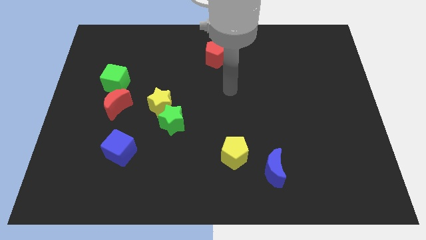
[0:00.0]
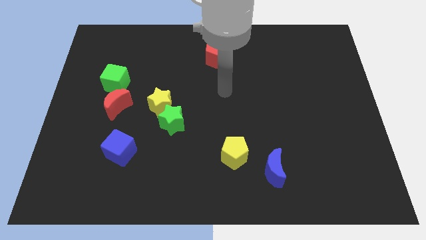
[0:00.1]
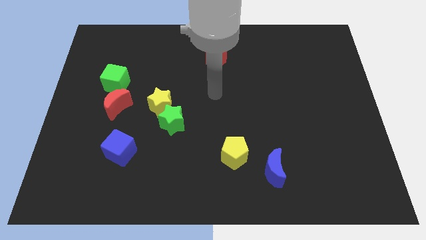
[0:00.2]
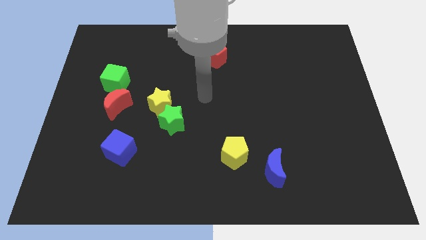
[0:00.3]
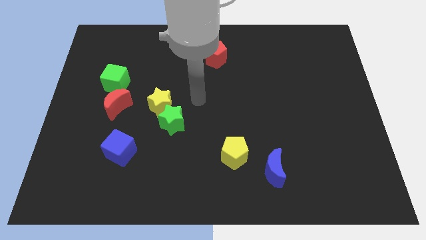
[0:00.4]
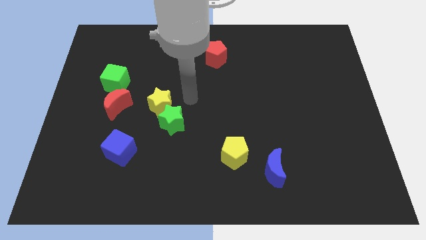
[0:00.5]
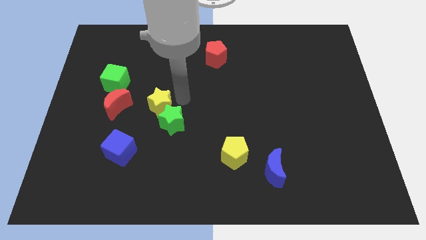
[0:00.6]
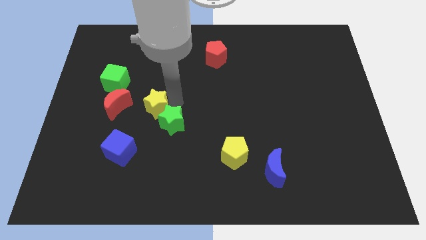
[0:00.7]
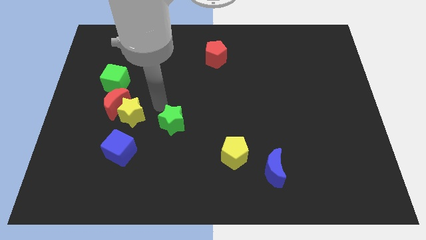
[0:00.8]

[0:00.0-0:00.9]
pull the green star apart from the yellow star

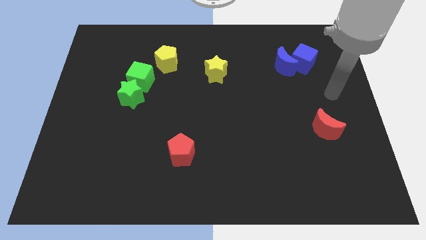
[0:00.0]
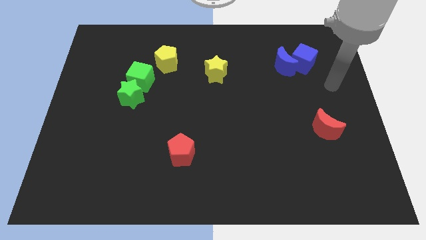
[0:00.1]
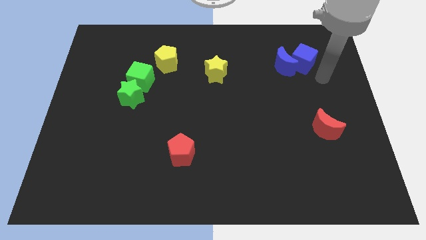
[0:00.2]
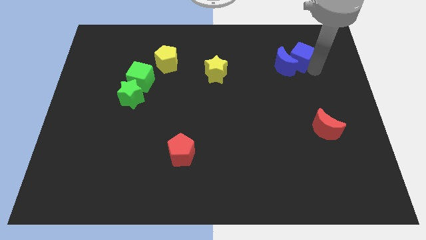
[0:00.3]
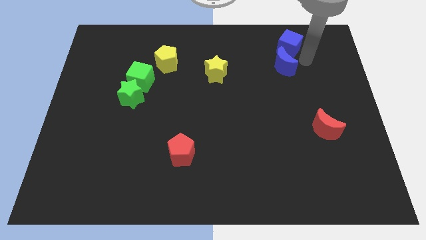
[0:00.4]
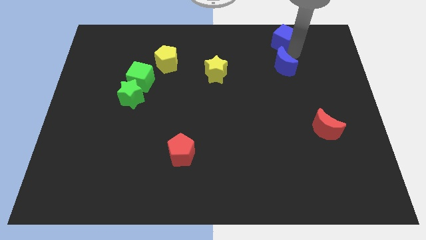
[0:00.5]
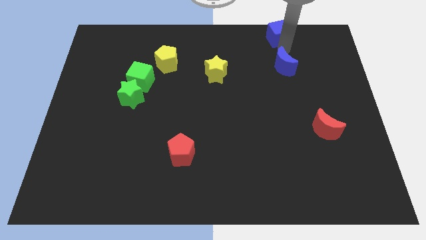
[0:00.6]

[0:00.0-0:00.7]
pull the blue moon apart from the blue cube

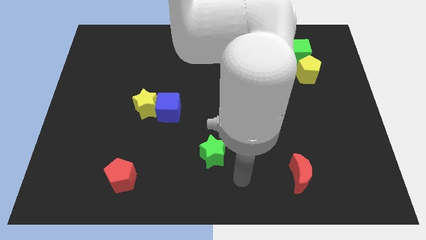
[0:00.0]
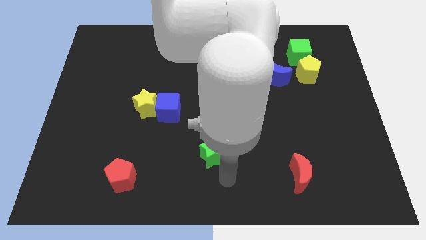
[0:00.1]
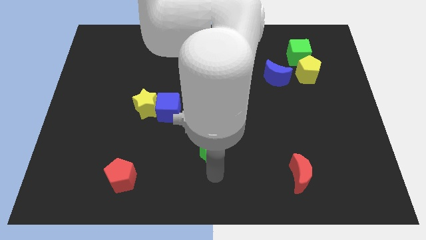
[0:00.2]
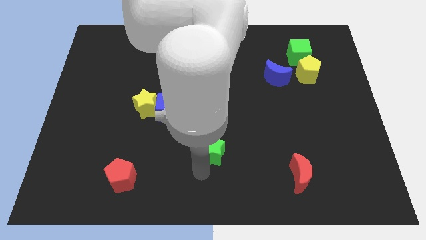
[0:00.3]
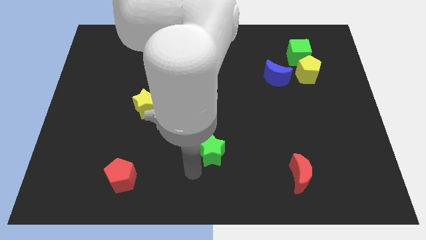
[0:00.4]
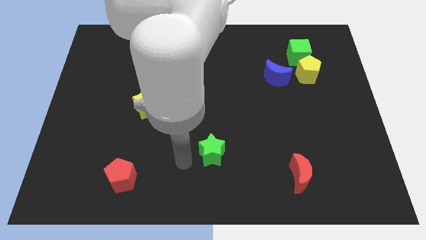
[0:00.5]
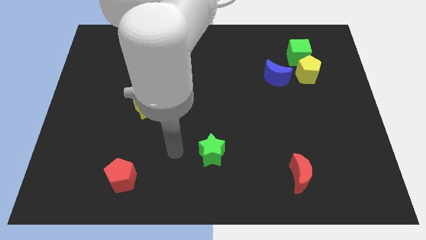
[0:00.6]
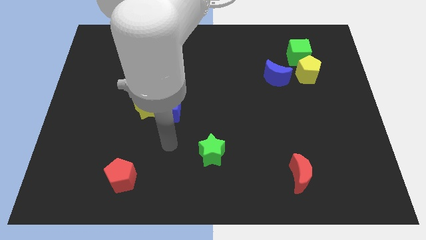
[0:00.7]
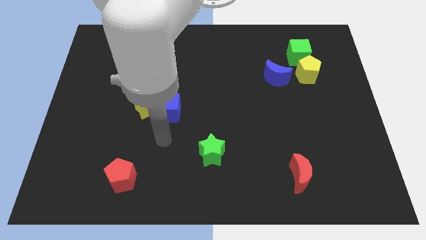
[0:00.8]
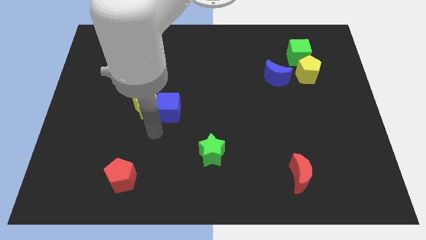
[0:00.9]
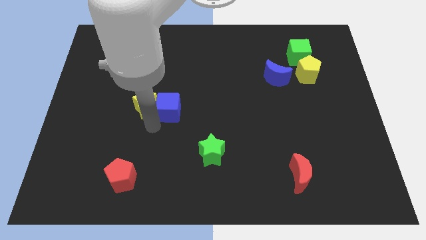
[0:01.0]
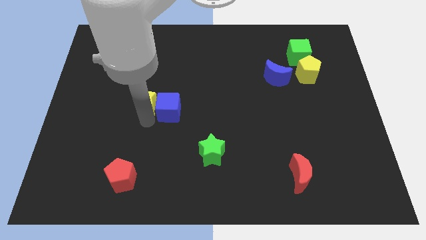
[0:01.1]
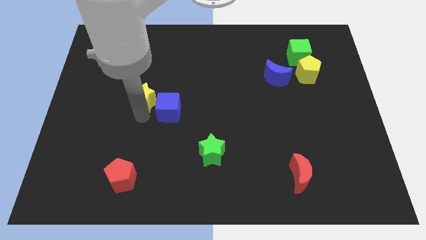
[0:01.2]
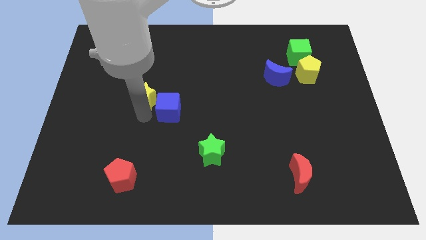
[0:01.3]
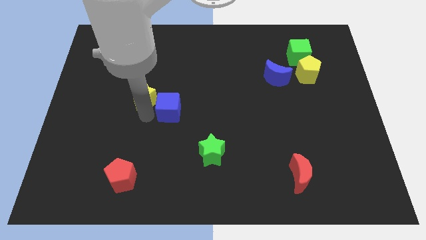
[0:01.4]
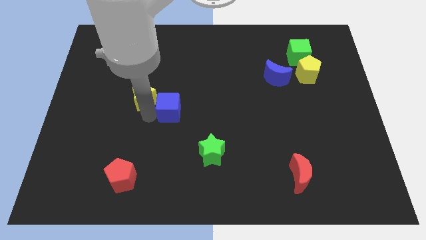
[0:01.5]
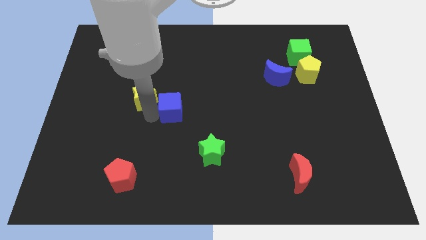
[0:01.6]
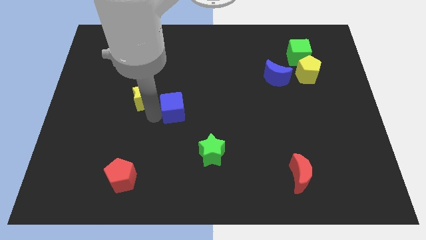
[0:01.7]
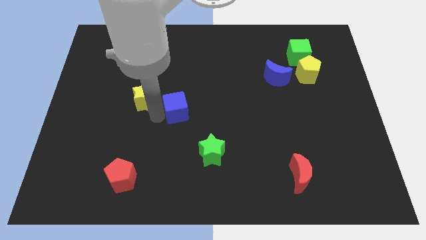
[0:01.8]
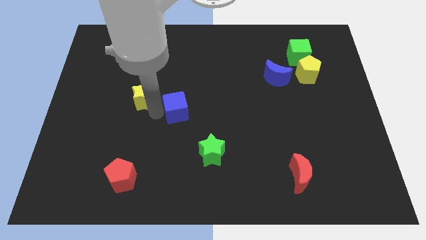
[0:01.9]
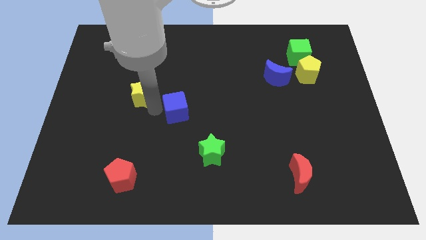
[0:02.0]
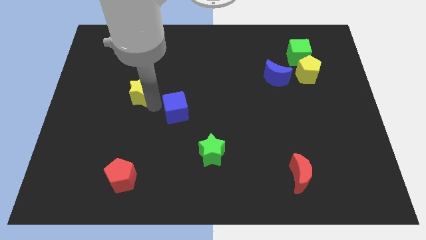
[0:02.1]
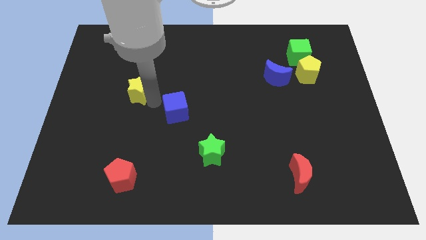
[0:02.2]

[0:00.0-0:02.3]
move the blue cube away from the yellow star

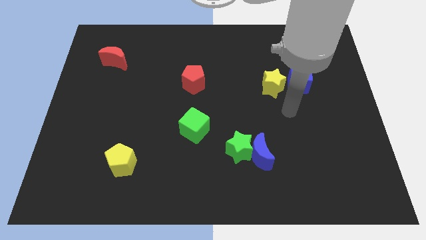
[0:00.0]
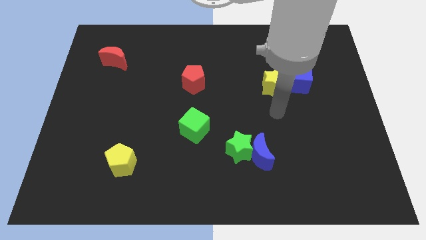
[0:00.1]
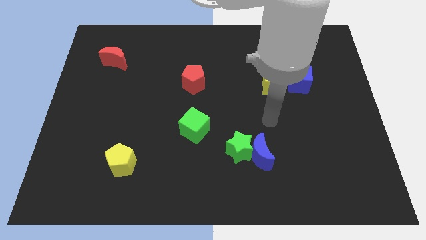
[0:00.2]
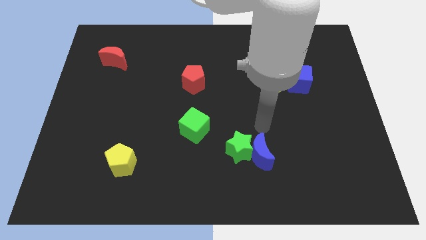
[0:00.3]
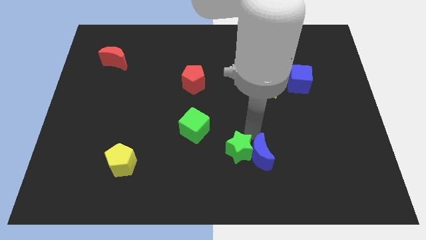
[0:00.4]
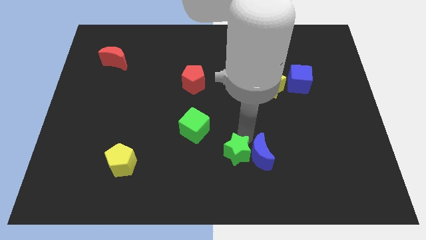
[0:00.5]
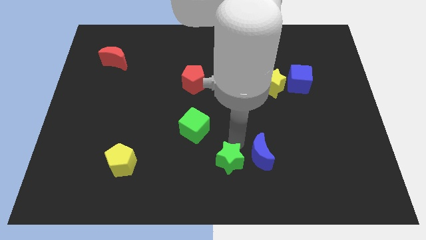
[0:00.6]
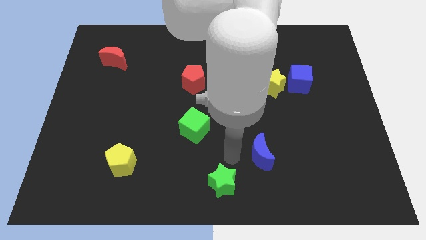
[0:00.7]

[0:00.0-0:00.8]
pull the blue moon apart from the green star

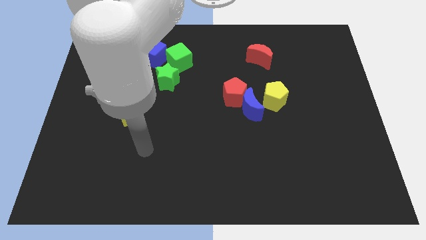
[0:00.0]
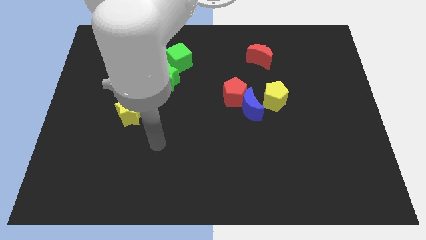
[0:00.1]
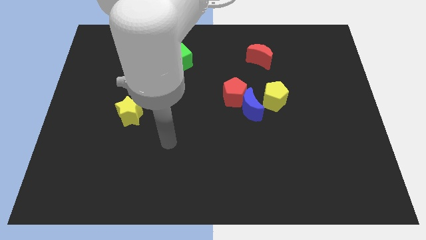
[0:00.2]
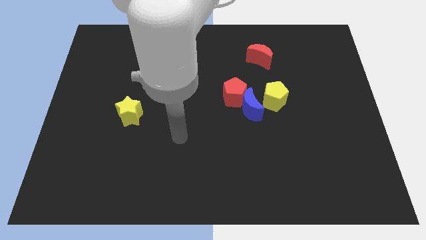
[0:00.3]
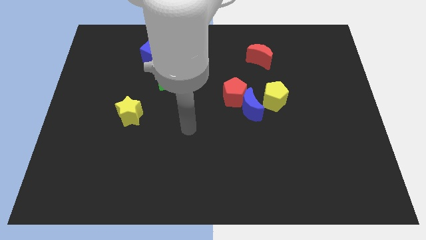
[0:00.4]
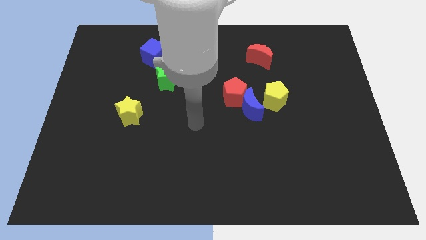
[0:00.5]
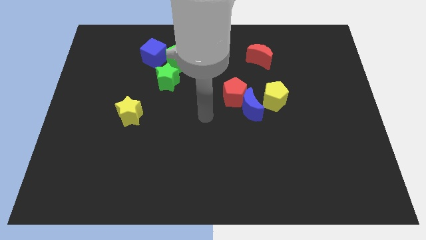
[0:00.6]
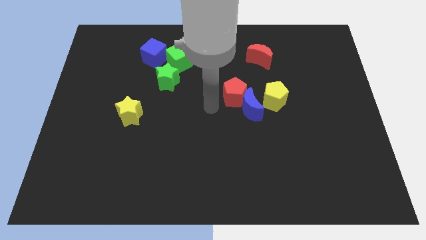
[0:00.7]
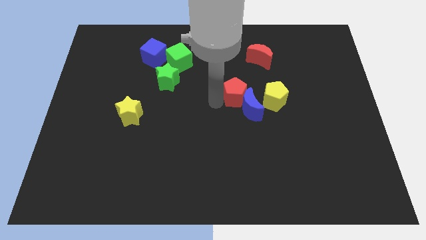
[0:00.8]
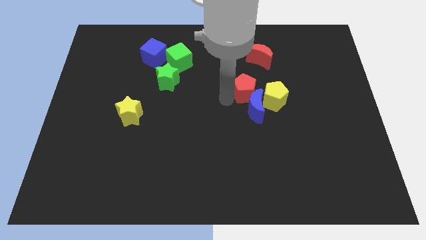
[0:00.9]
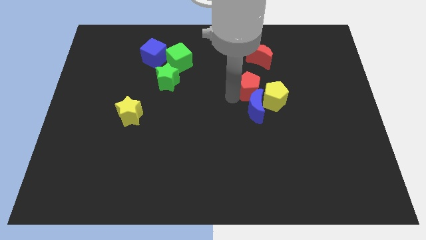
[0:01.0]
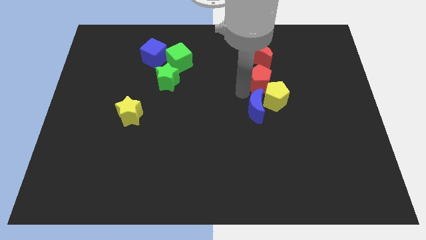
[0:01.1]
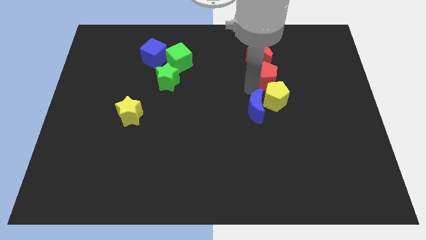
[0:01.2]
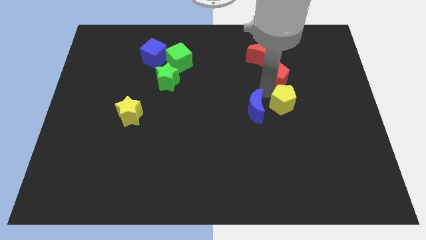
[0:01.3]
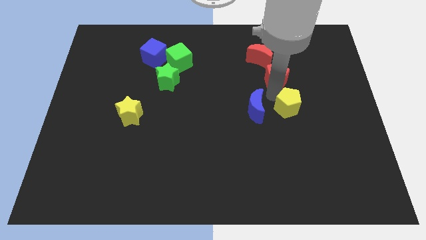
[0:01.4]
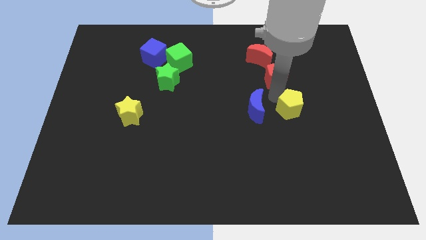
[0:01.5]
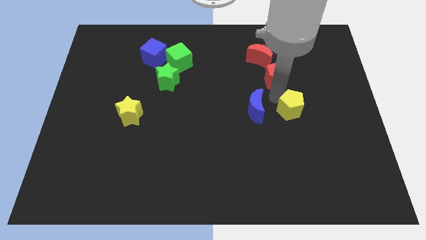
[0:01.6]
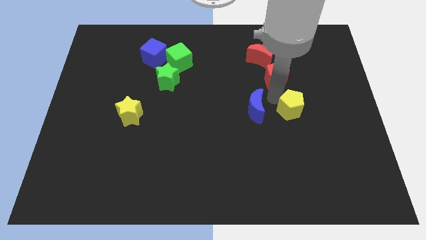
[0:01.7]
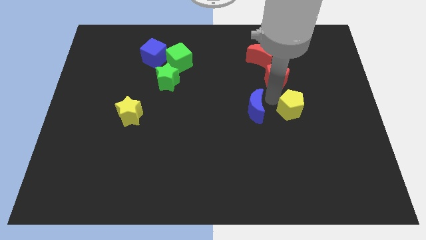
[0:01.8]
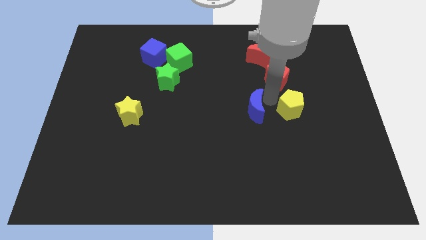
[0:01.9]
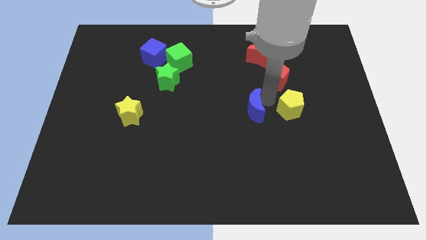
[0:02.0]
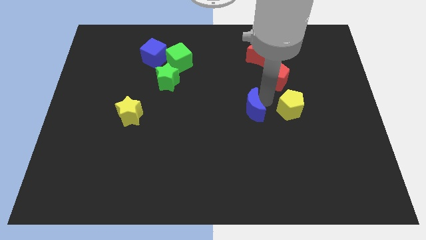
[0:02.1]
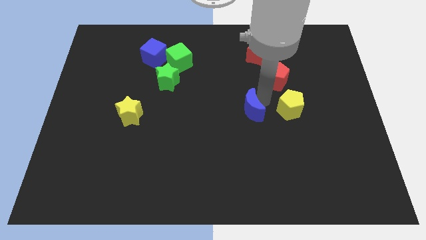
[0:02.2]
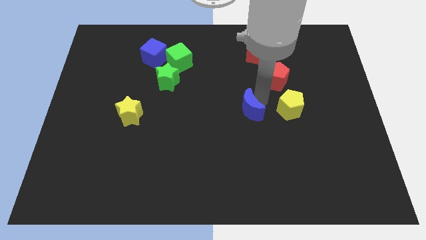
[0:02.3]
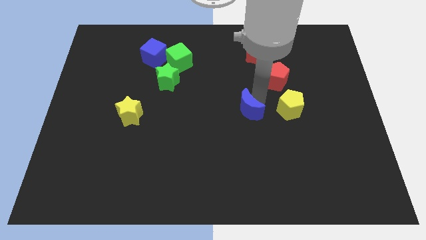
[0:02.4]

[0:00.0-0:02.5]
pull the blue moon apart from the red pentagon and yellow pentagon

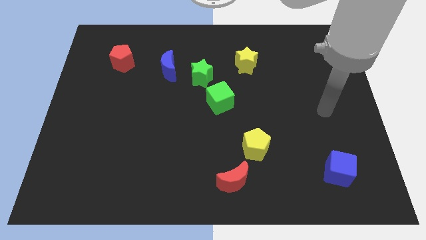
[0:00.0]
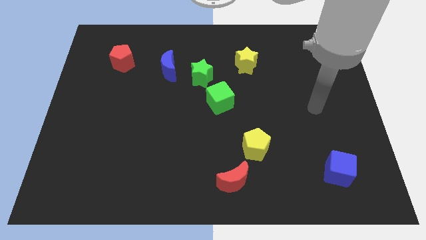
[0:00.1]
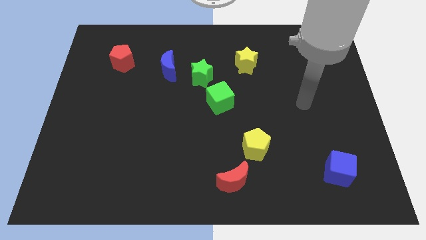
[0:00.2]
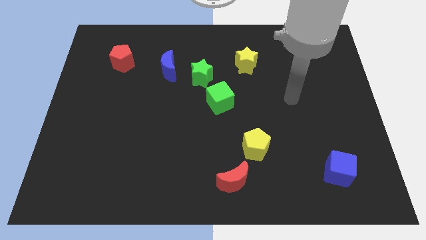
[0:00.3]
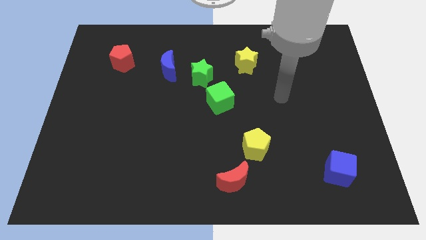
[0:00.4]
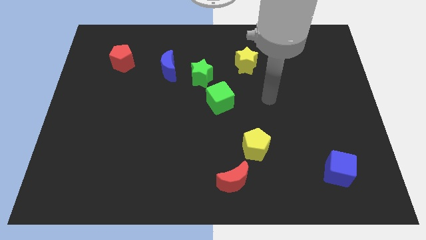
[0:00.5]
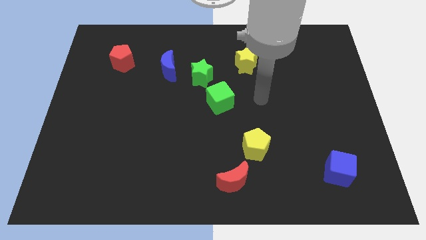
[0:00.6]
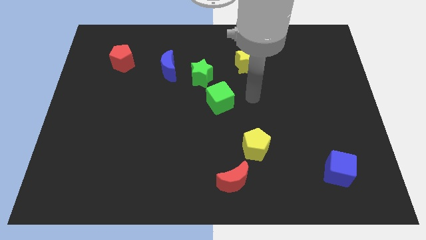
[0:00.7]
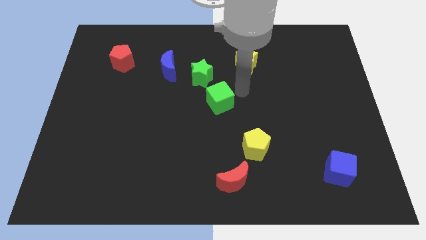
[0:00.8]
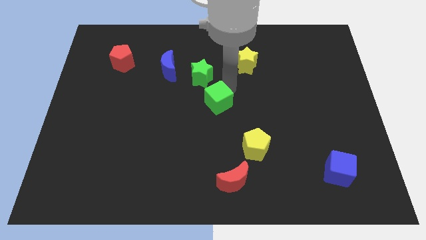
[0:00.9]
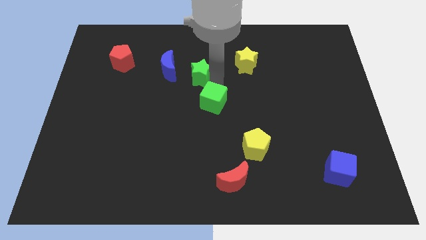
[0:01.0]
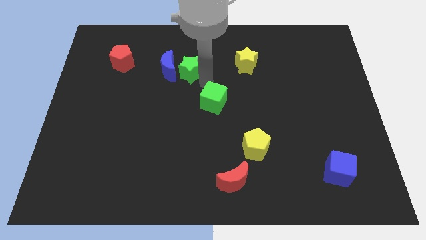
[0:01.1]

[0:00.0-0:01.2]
pull the green cube apart from the green star

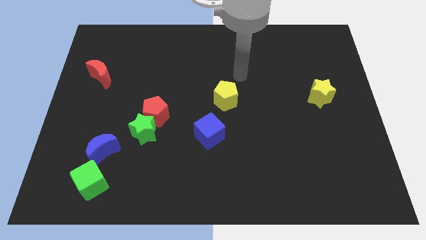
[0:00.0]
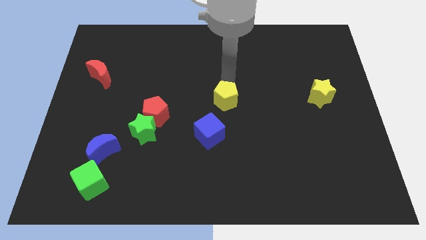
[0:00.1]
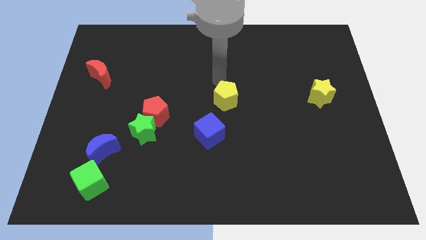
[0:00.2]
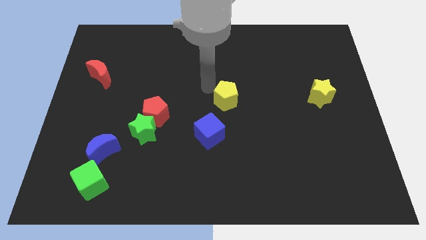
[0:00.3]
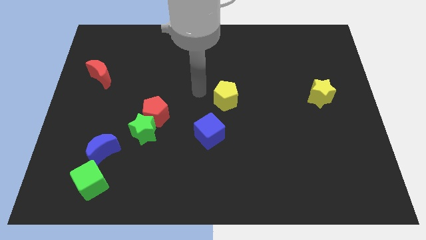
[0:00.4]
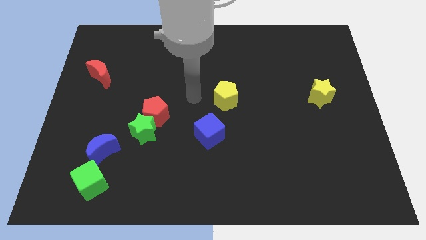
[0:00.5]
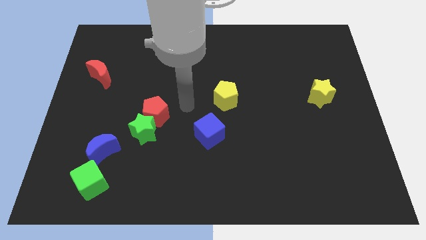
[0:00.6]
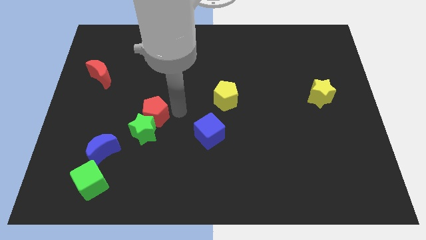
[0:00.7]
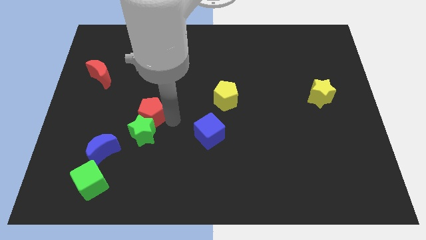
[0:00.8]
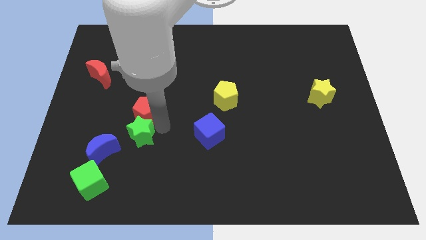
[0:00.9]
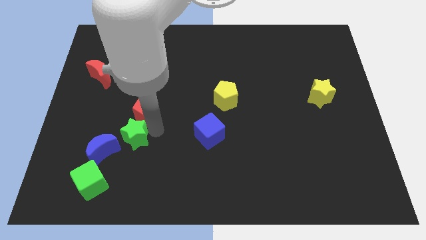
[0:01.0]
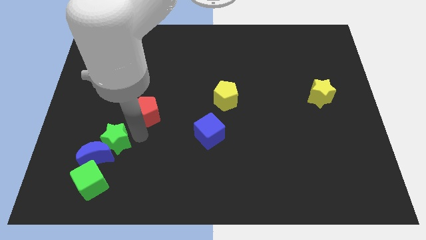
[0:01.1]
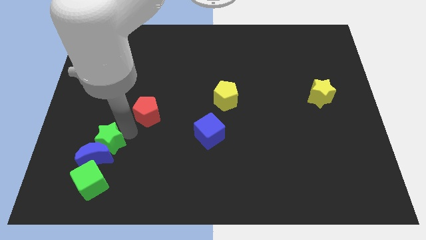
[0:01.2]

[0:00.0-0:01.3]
separate the red pentagon from the green star
